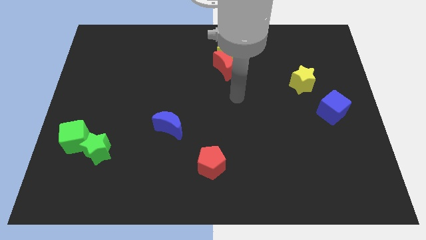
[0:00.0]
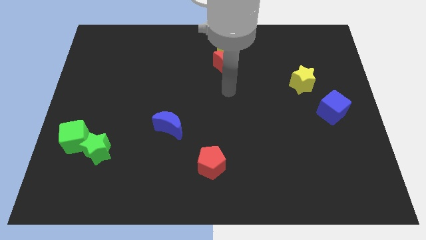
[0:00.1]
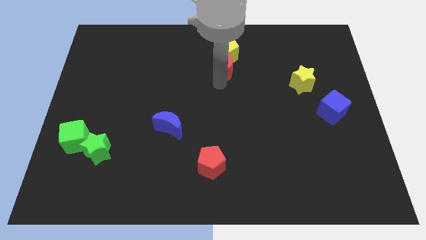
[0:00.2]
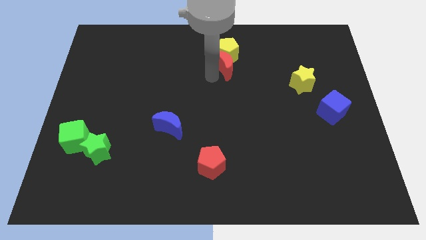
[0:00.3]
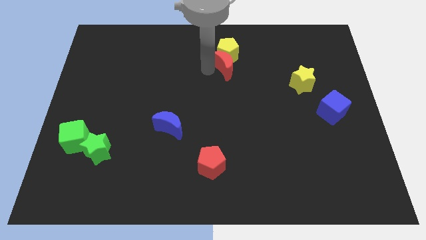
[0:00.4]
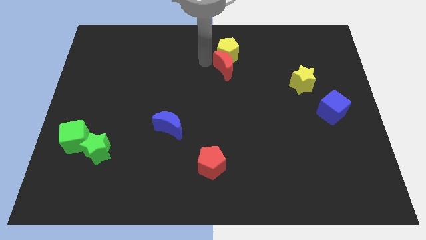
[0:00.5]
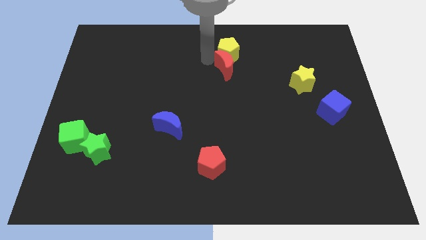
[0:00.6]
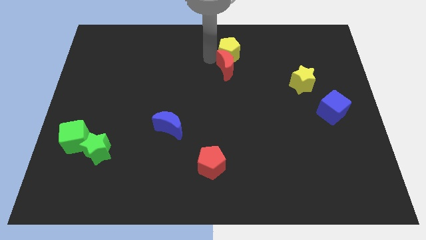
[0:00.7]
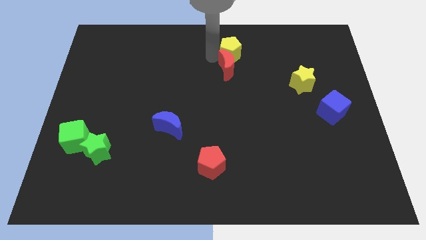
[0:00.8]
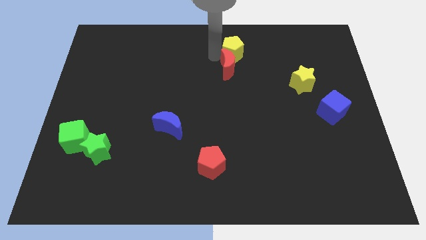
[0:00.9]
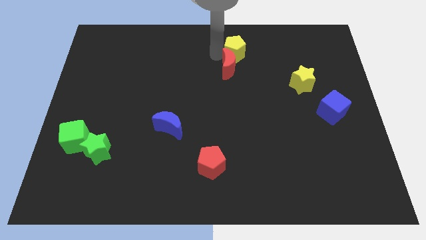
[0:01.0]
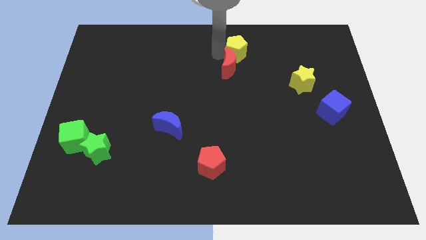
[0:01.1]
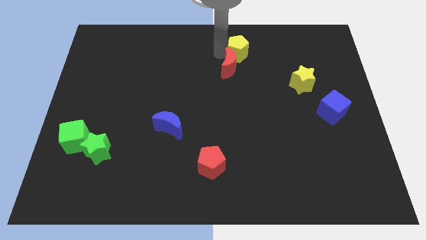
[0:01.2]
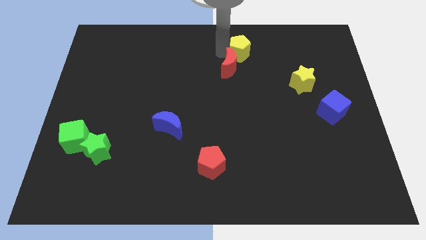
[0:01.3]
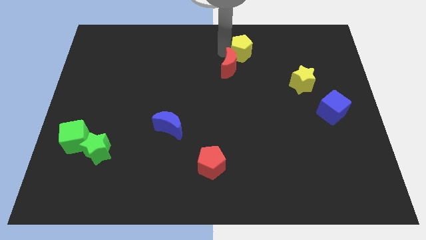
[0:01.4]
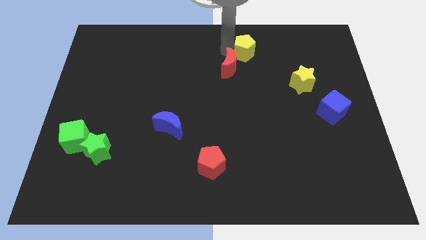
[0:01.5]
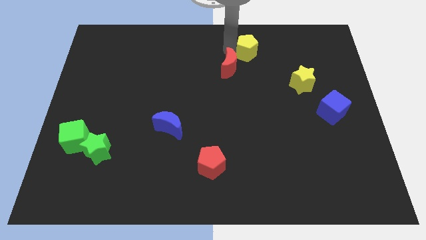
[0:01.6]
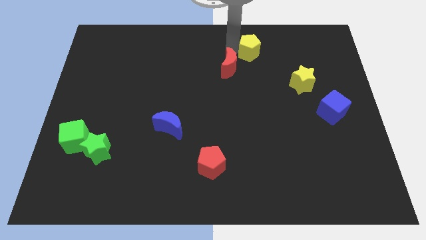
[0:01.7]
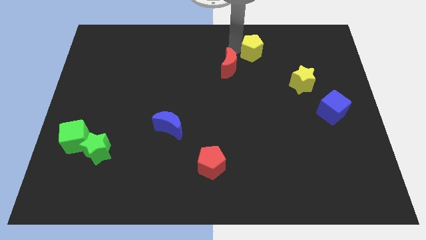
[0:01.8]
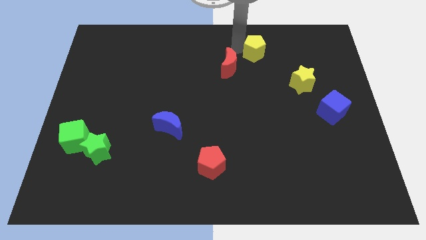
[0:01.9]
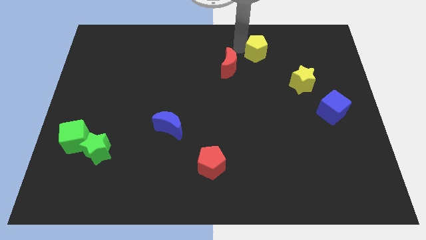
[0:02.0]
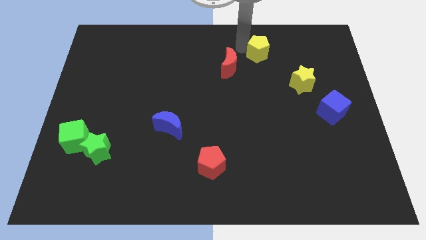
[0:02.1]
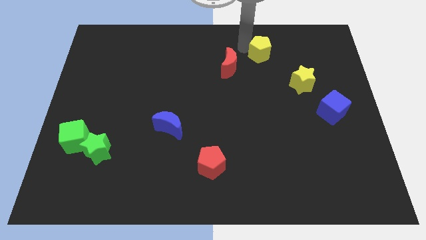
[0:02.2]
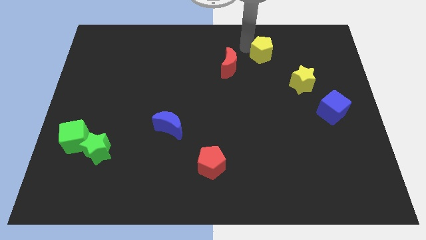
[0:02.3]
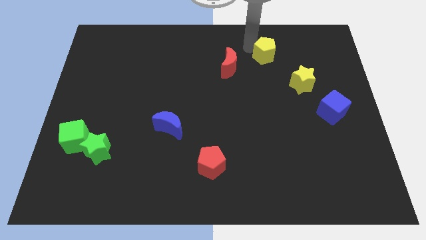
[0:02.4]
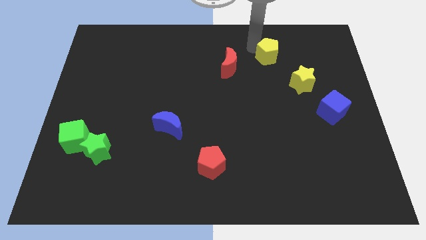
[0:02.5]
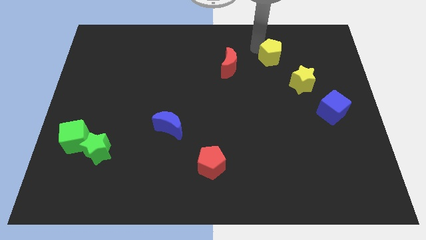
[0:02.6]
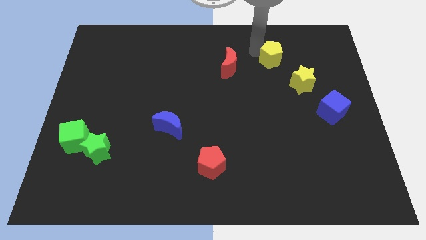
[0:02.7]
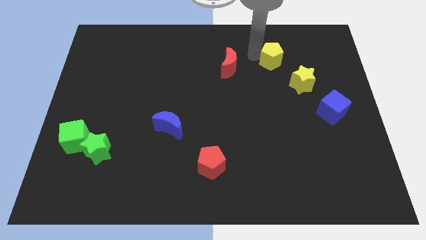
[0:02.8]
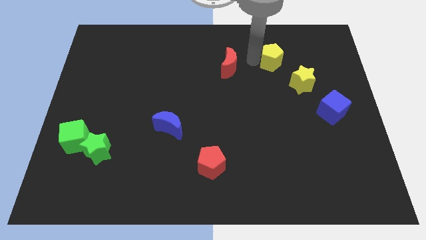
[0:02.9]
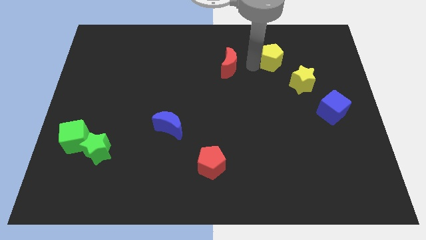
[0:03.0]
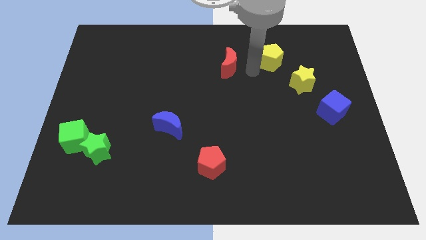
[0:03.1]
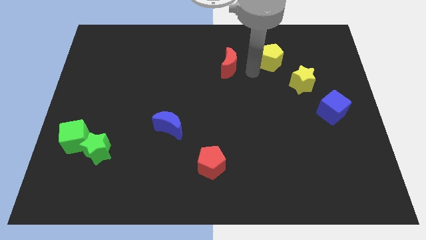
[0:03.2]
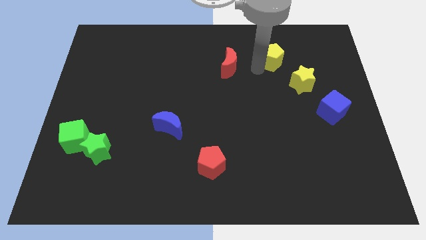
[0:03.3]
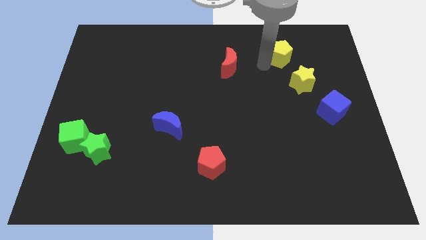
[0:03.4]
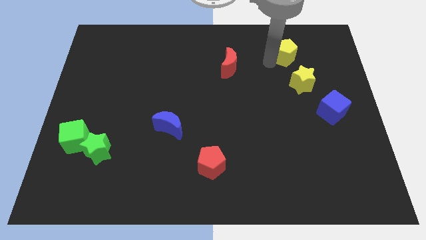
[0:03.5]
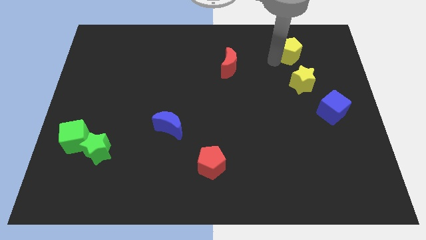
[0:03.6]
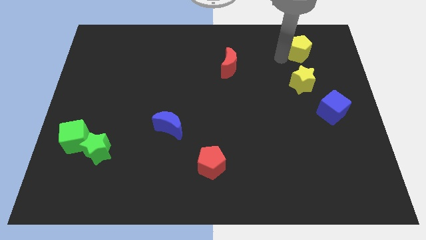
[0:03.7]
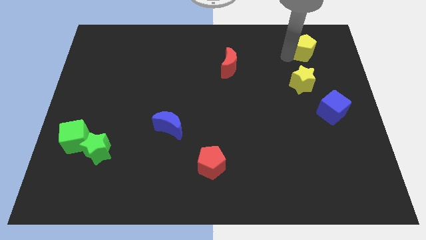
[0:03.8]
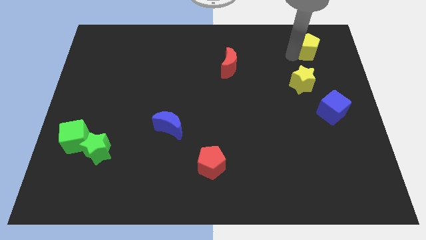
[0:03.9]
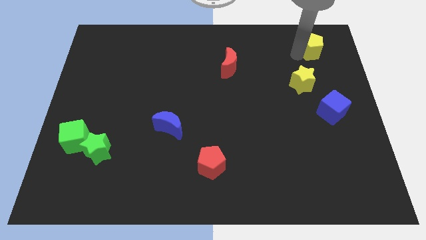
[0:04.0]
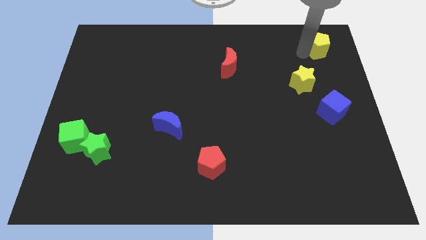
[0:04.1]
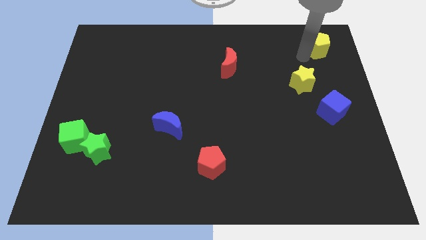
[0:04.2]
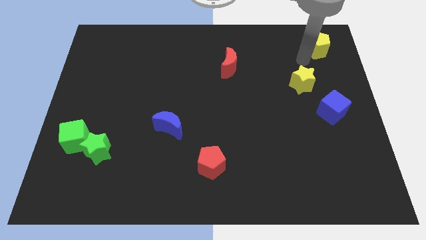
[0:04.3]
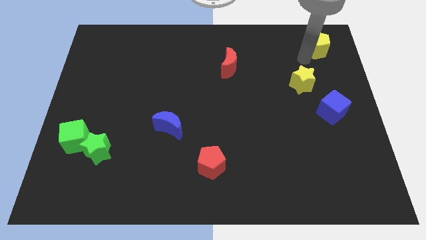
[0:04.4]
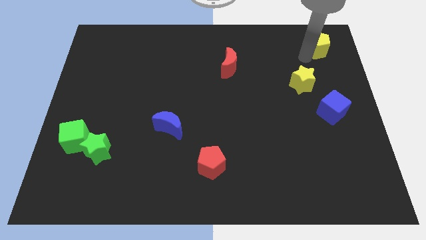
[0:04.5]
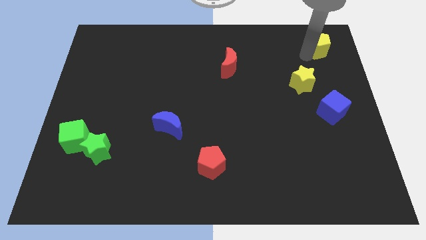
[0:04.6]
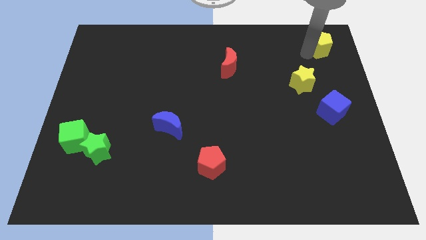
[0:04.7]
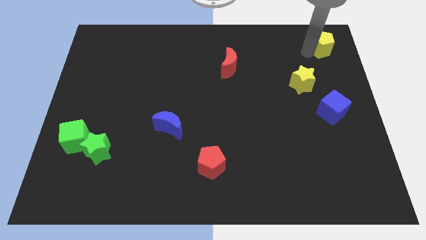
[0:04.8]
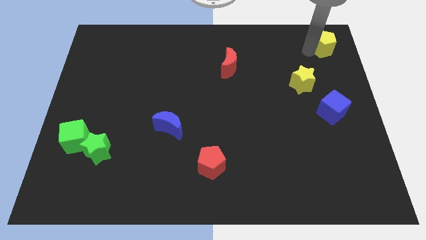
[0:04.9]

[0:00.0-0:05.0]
slide the yellow pentagon to the upper right corner
